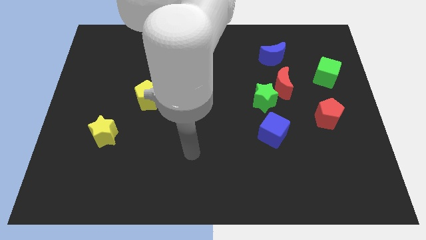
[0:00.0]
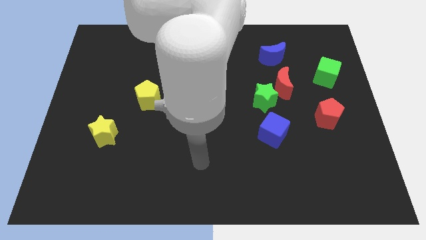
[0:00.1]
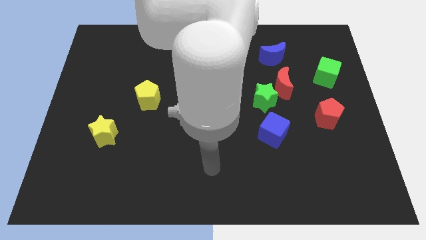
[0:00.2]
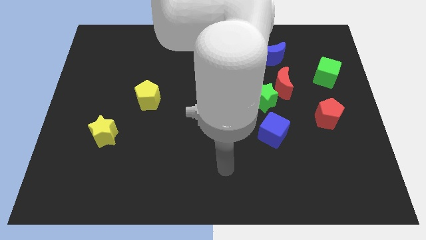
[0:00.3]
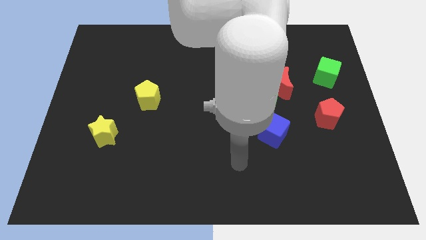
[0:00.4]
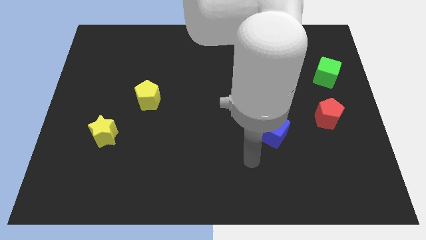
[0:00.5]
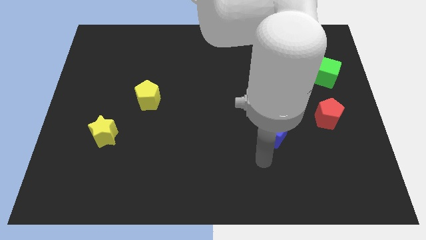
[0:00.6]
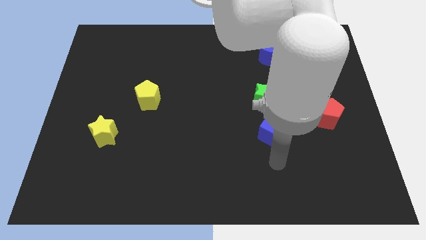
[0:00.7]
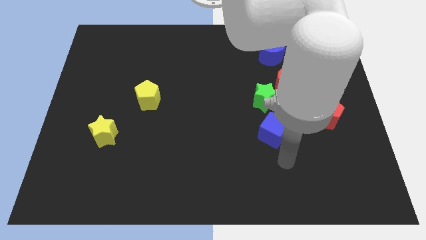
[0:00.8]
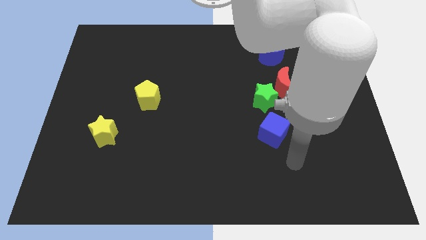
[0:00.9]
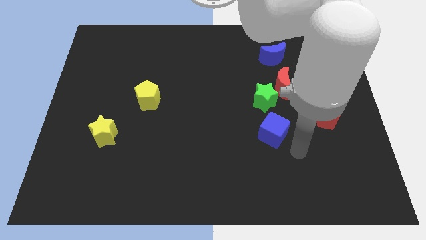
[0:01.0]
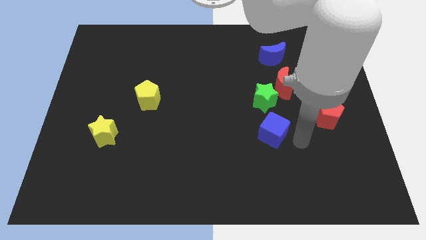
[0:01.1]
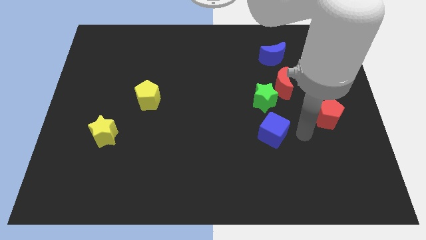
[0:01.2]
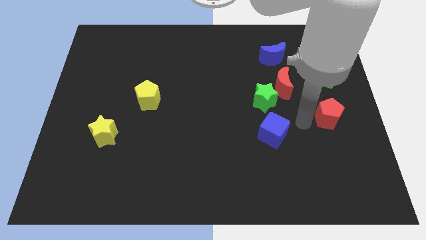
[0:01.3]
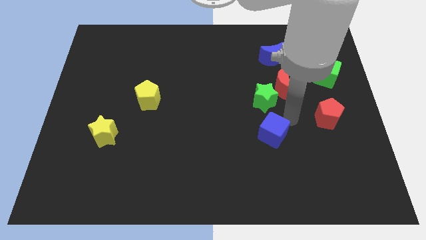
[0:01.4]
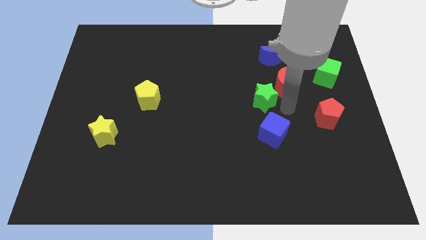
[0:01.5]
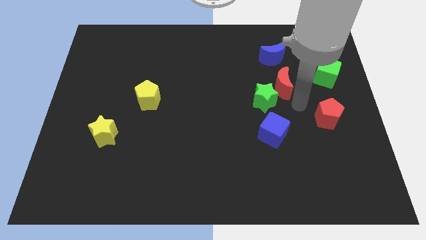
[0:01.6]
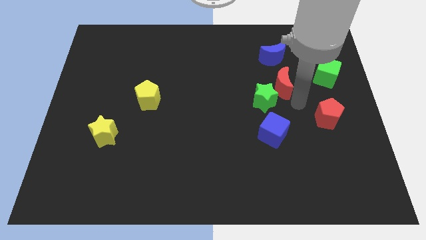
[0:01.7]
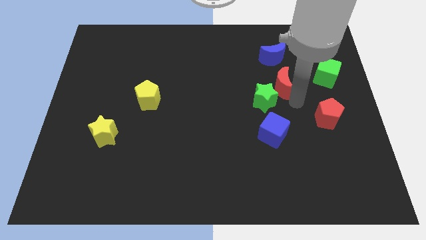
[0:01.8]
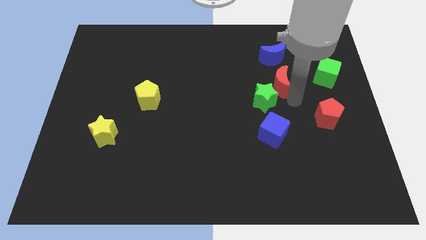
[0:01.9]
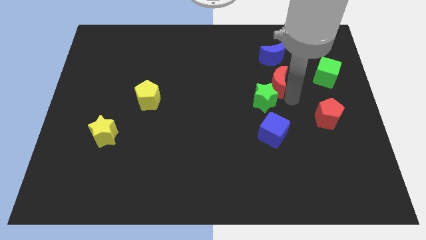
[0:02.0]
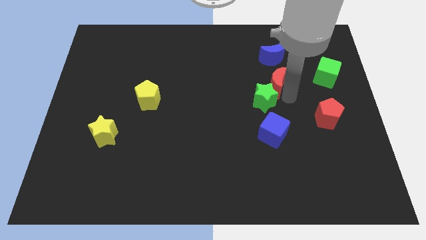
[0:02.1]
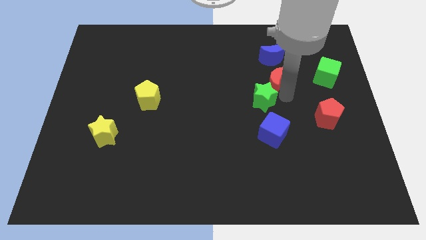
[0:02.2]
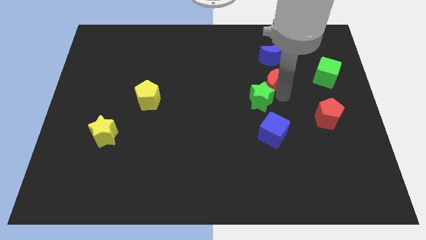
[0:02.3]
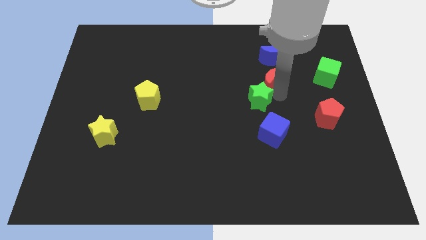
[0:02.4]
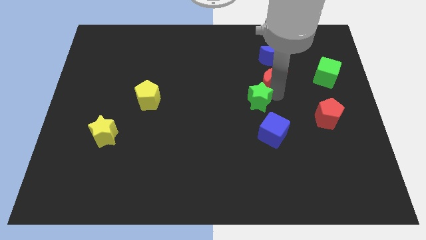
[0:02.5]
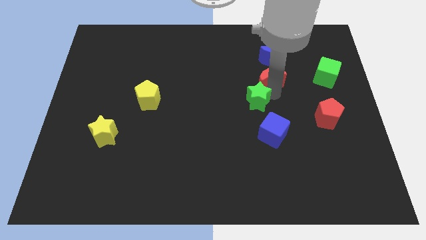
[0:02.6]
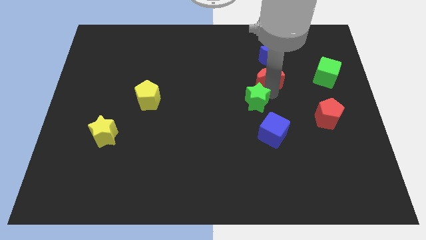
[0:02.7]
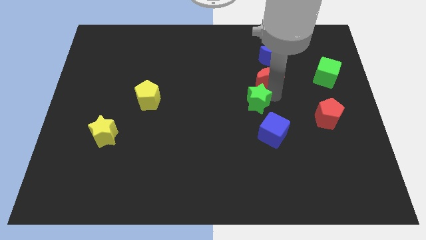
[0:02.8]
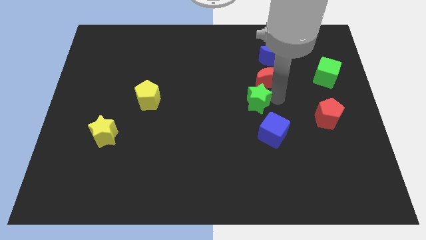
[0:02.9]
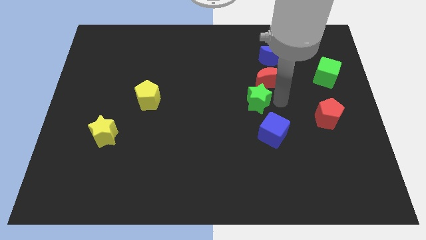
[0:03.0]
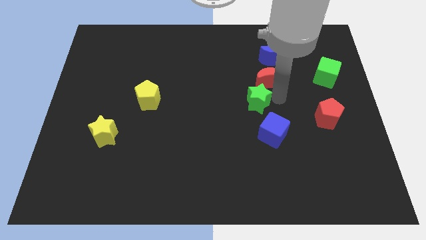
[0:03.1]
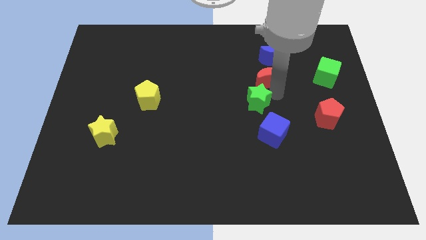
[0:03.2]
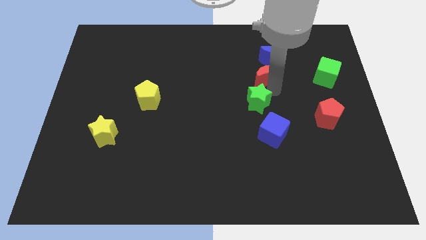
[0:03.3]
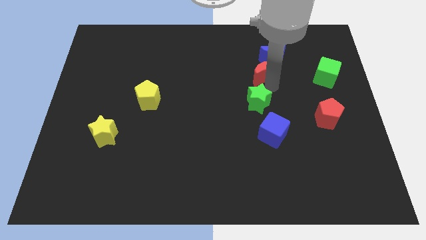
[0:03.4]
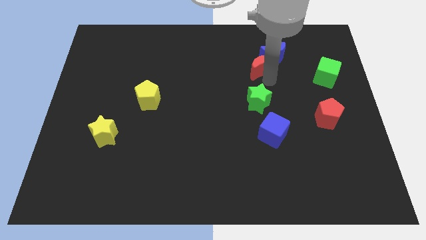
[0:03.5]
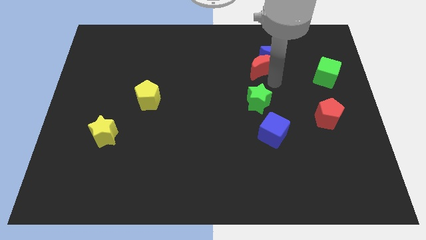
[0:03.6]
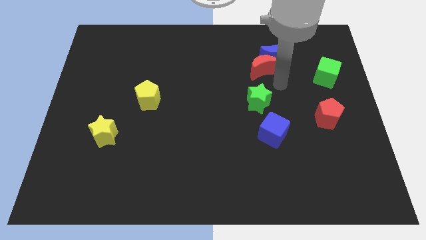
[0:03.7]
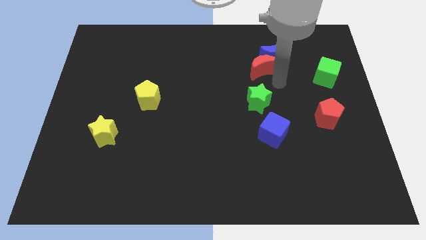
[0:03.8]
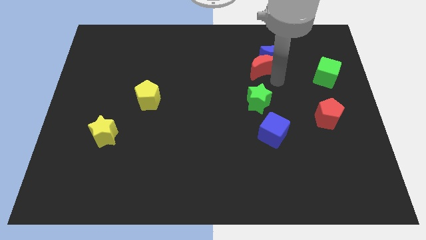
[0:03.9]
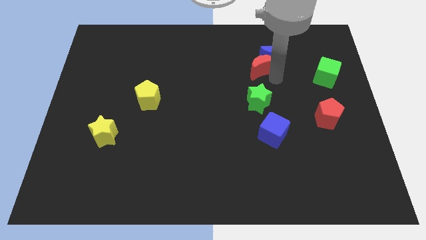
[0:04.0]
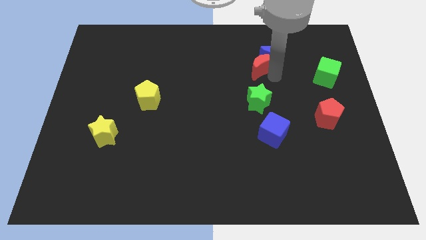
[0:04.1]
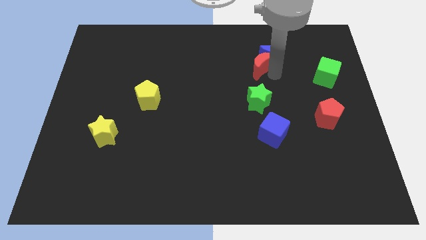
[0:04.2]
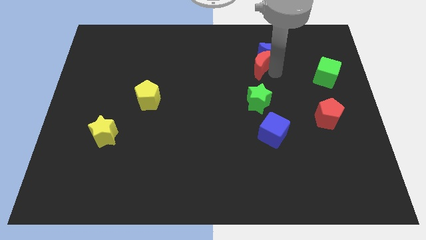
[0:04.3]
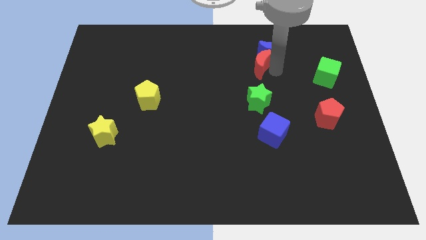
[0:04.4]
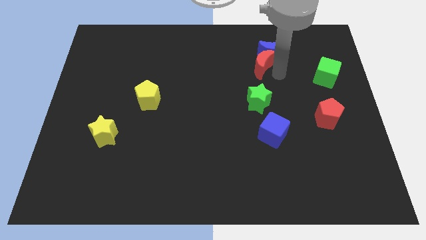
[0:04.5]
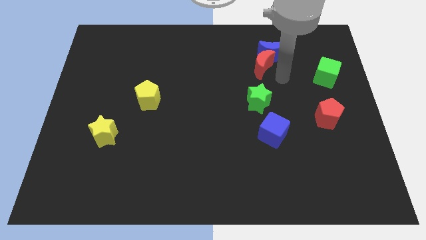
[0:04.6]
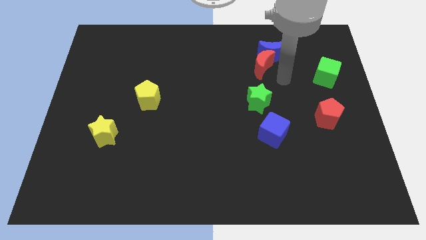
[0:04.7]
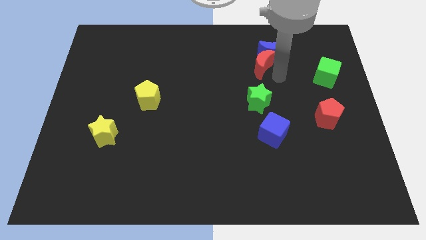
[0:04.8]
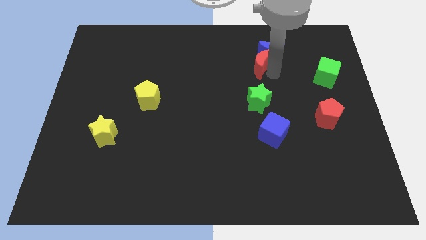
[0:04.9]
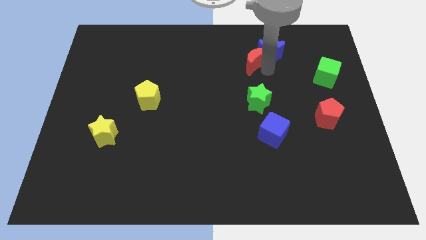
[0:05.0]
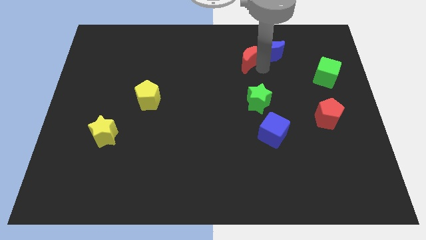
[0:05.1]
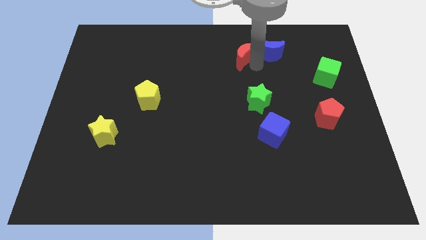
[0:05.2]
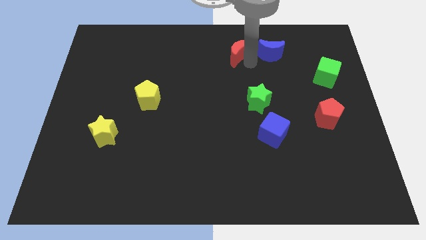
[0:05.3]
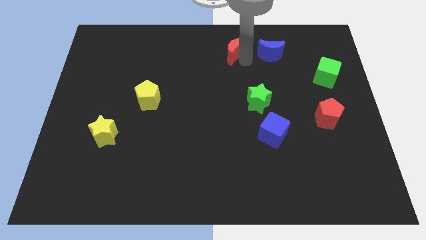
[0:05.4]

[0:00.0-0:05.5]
move the red moon to the top side
